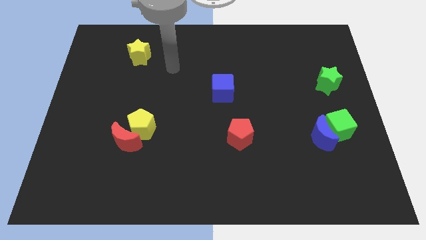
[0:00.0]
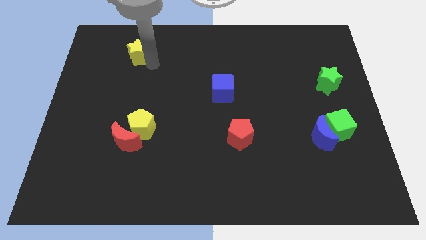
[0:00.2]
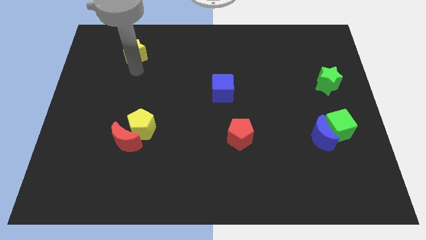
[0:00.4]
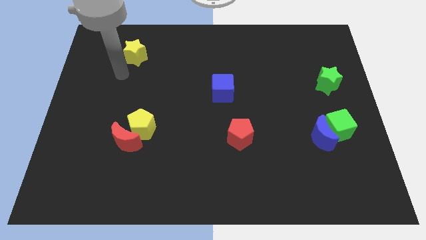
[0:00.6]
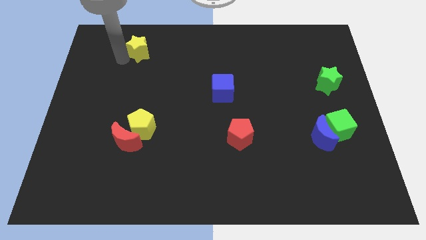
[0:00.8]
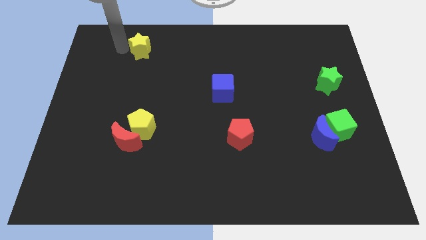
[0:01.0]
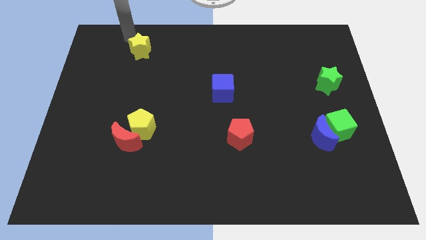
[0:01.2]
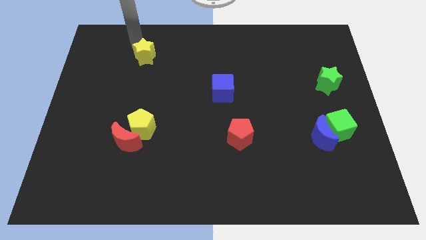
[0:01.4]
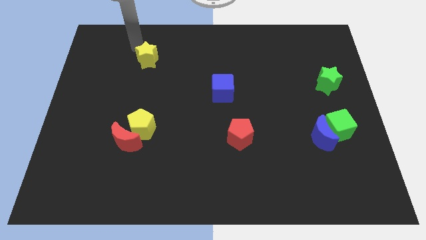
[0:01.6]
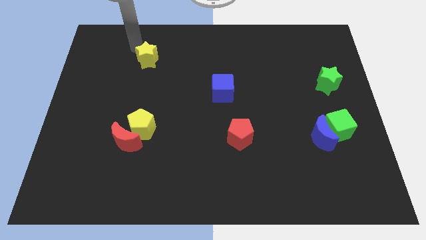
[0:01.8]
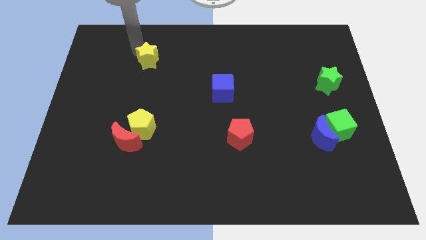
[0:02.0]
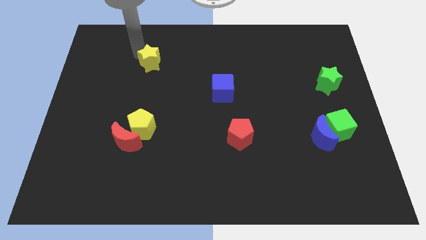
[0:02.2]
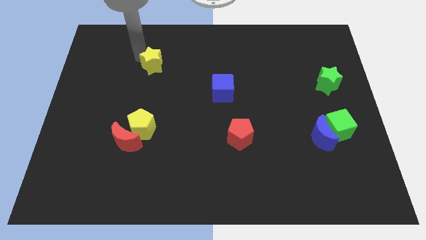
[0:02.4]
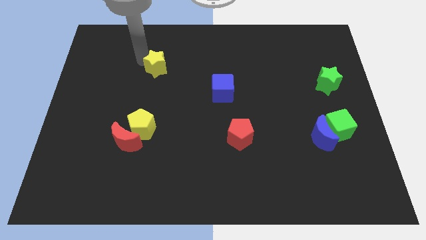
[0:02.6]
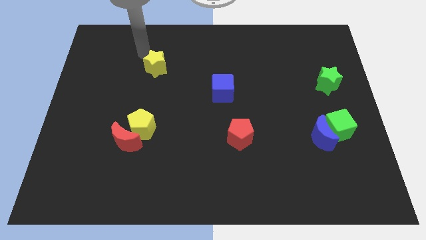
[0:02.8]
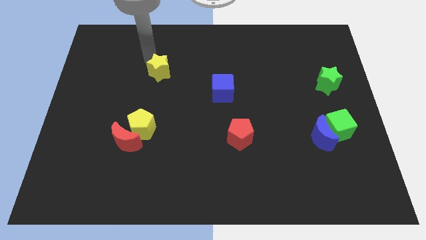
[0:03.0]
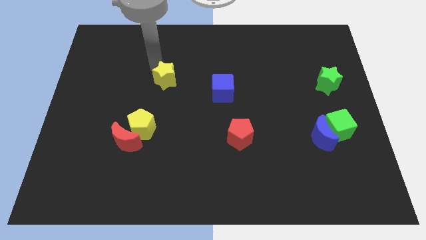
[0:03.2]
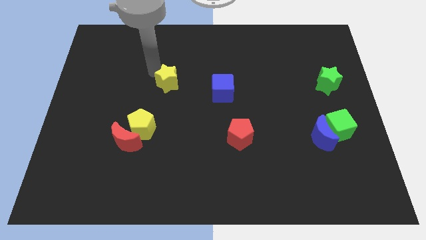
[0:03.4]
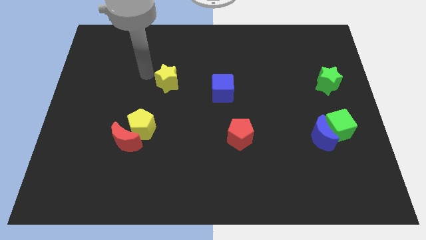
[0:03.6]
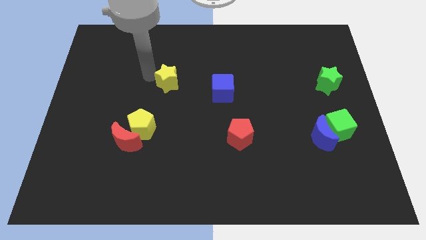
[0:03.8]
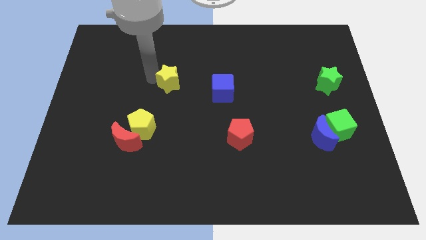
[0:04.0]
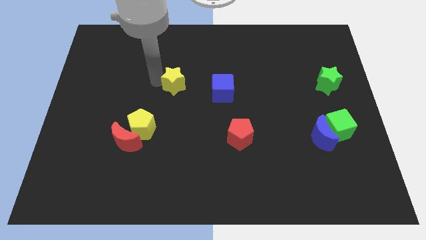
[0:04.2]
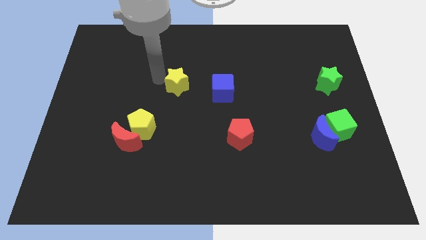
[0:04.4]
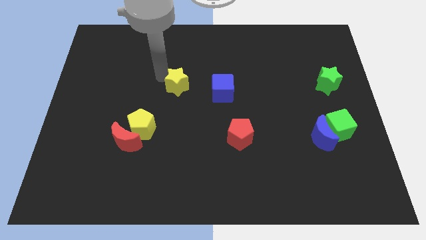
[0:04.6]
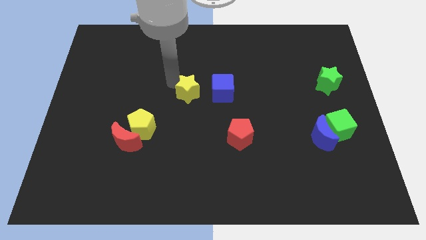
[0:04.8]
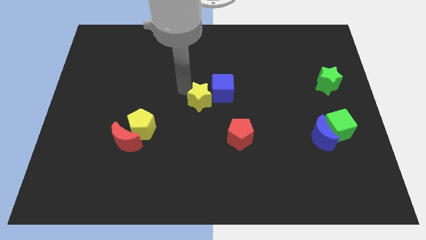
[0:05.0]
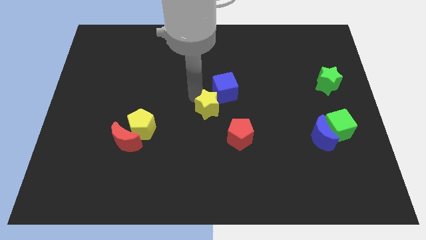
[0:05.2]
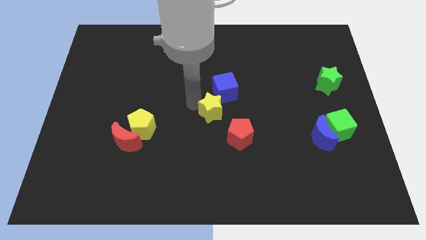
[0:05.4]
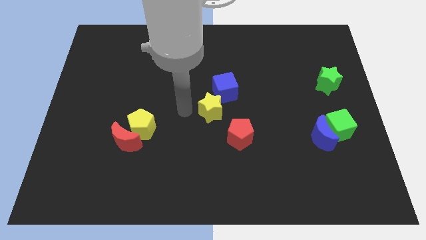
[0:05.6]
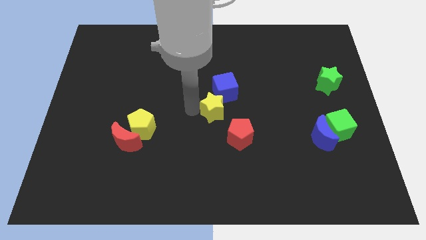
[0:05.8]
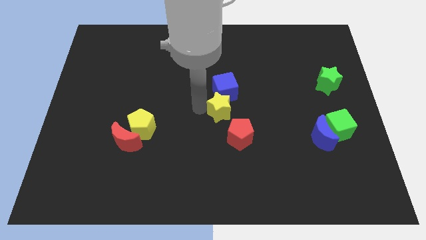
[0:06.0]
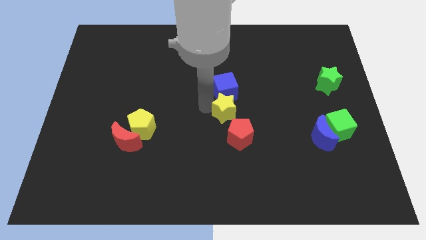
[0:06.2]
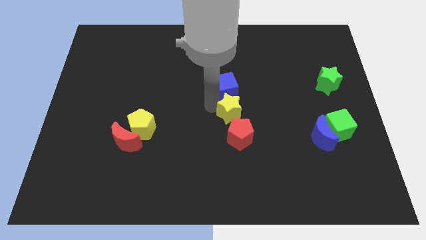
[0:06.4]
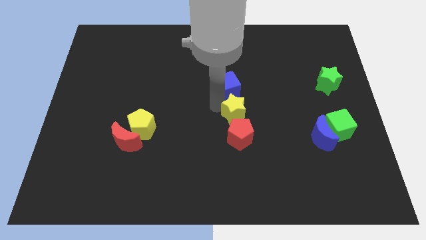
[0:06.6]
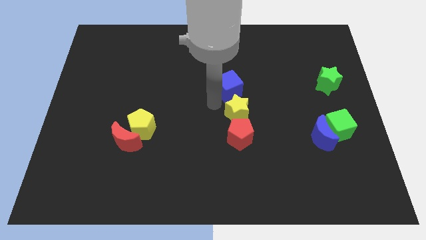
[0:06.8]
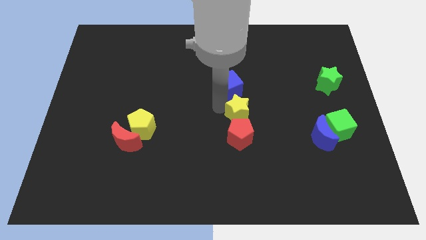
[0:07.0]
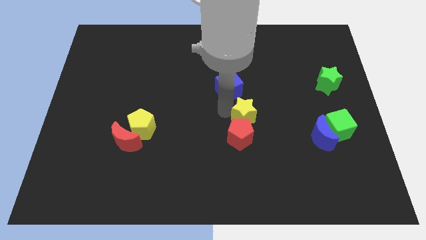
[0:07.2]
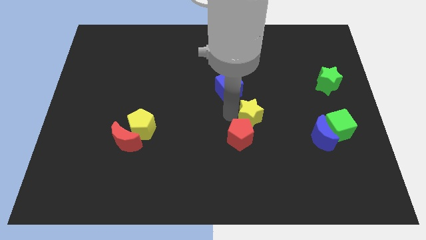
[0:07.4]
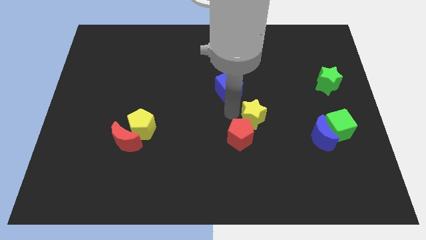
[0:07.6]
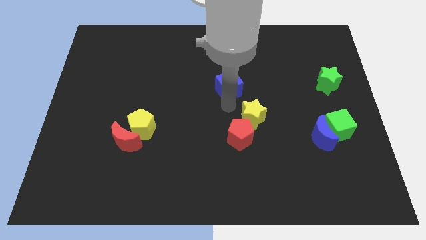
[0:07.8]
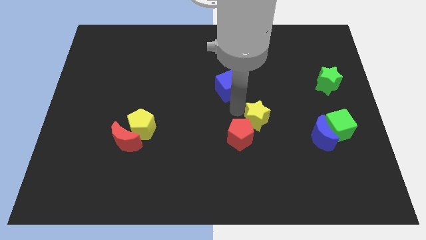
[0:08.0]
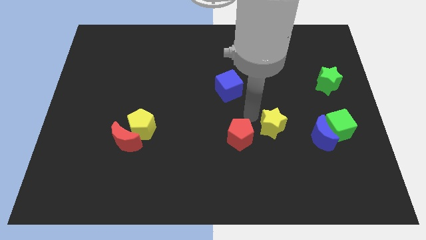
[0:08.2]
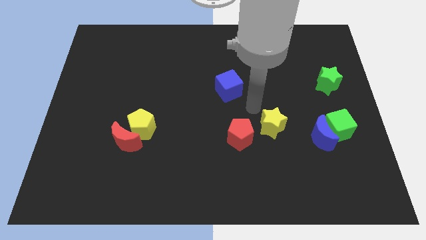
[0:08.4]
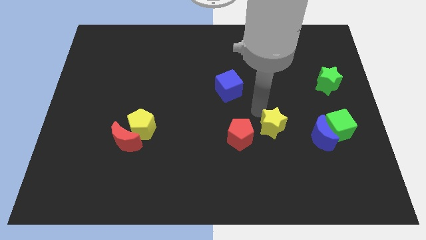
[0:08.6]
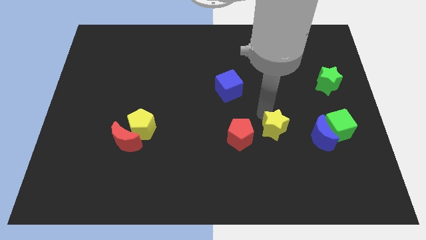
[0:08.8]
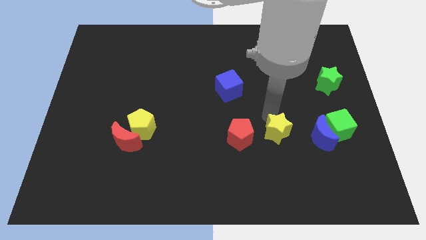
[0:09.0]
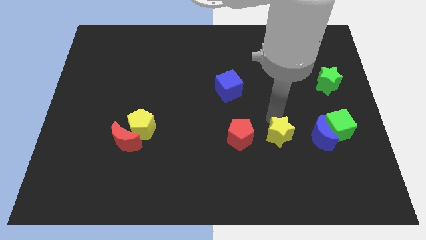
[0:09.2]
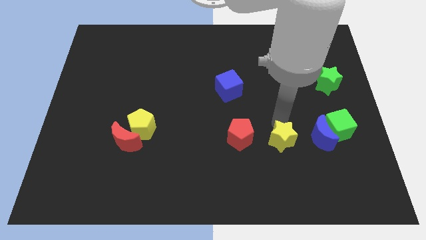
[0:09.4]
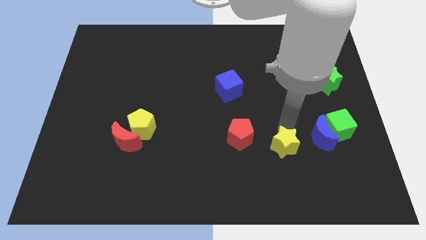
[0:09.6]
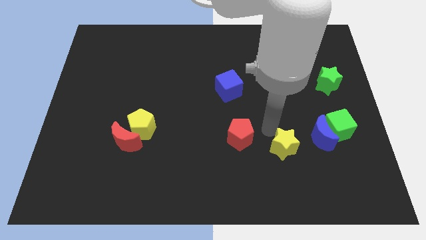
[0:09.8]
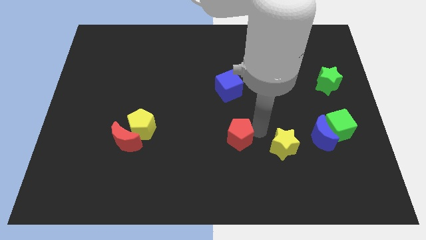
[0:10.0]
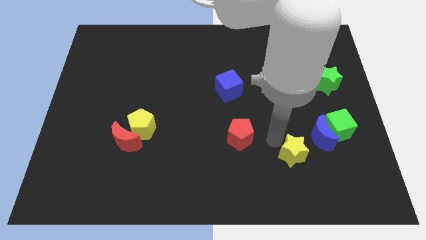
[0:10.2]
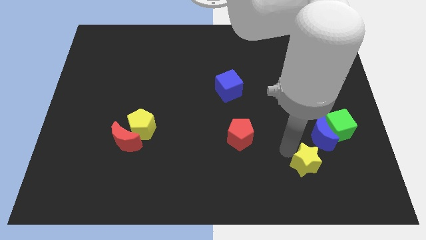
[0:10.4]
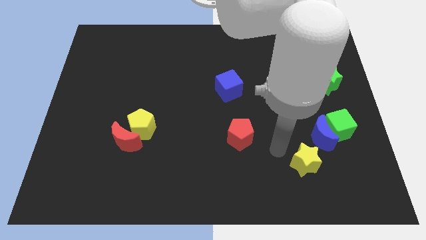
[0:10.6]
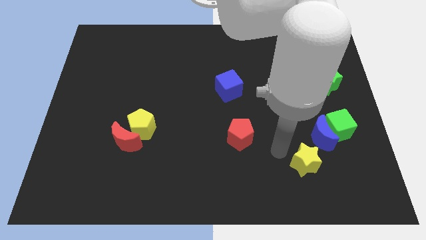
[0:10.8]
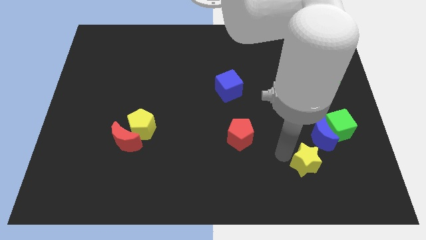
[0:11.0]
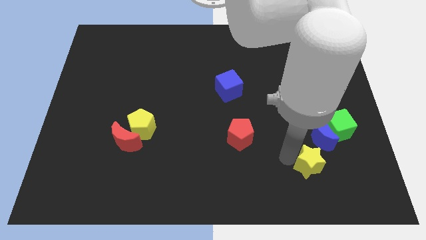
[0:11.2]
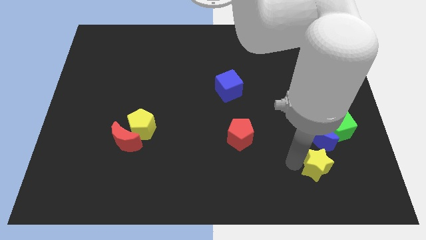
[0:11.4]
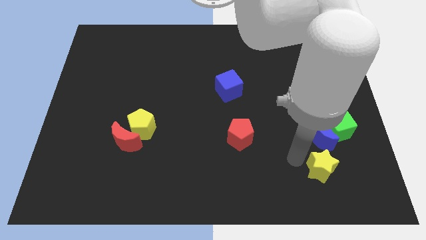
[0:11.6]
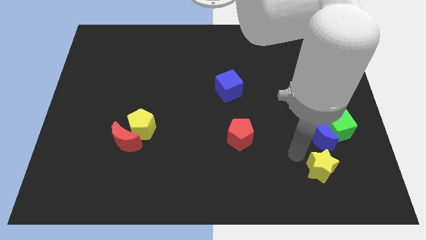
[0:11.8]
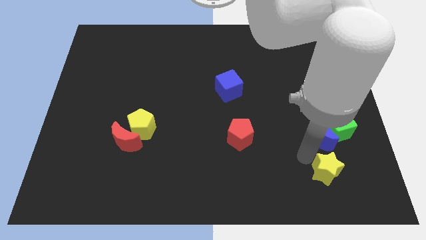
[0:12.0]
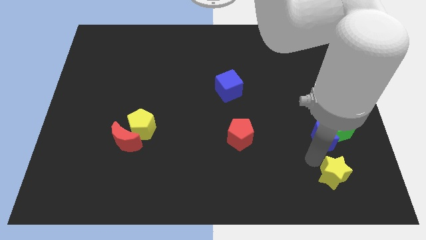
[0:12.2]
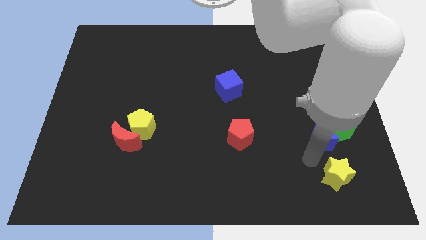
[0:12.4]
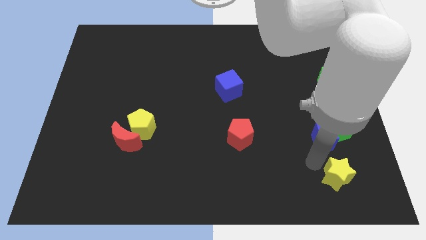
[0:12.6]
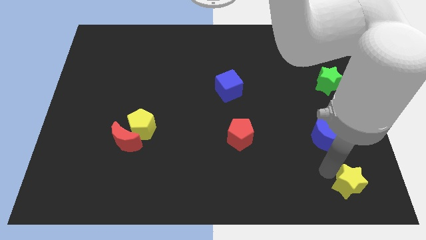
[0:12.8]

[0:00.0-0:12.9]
move the yellow star to the bottom right of the board
